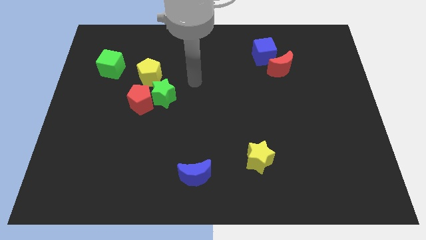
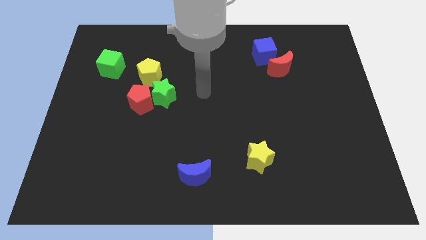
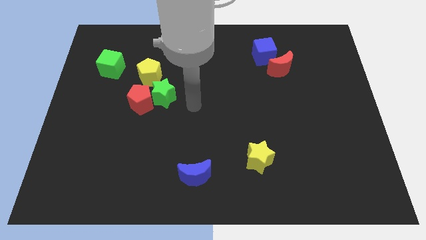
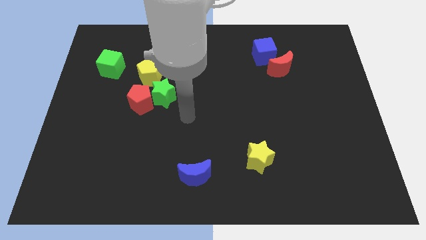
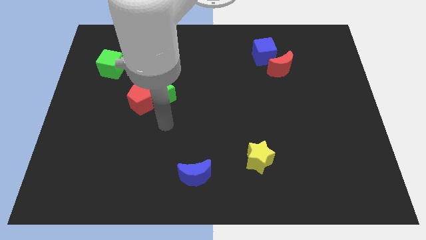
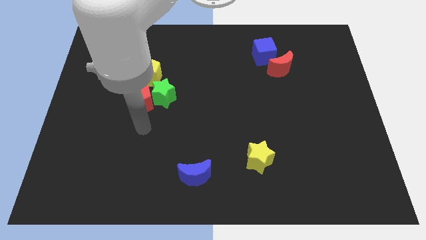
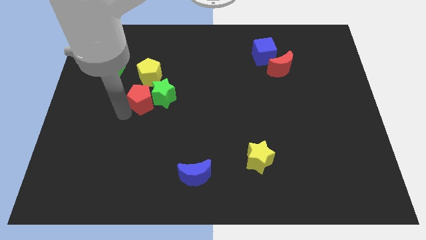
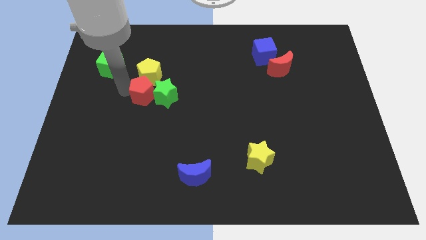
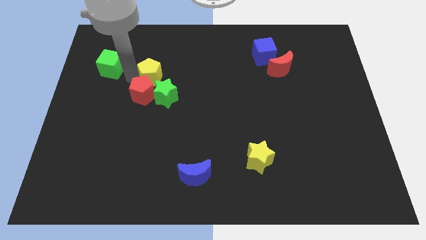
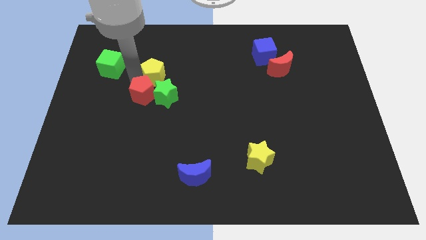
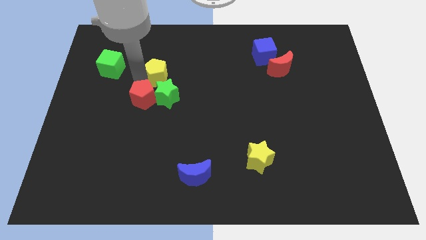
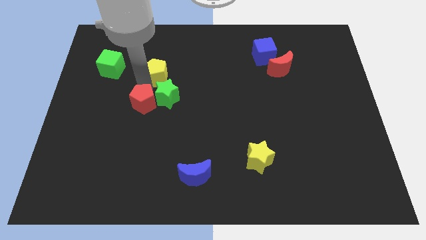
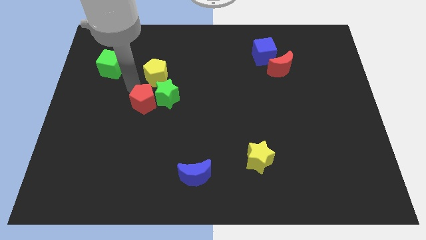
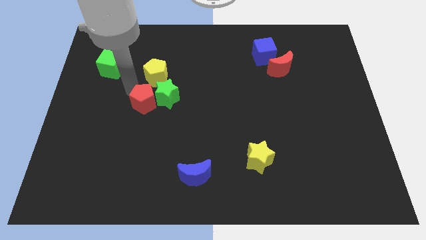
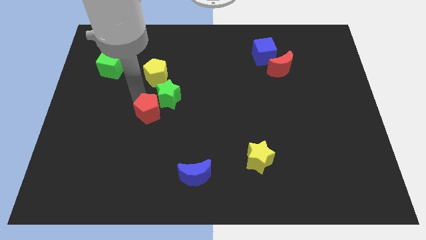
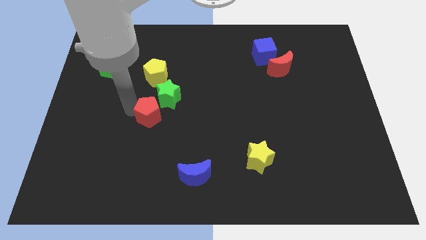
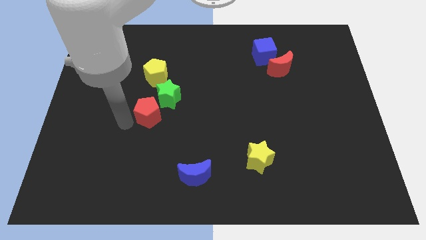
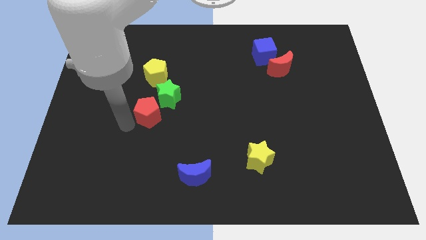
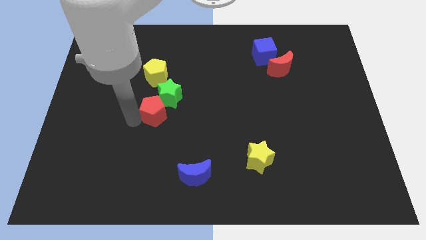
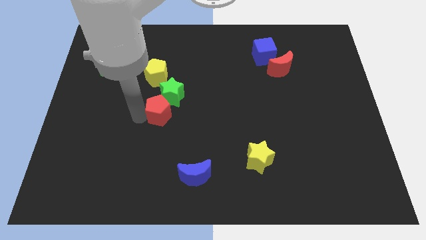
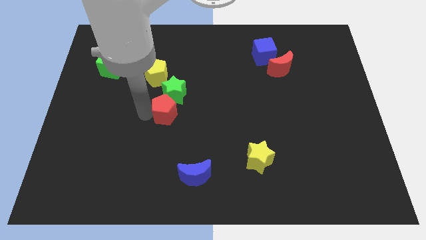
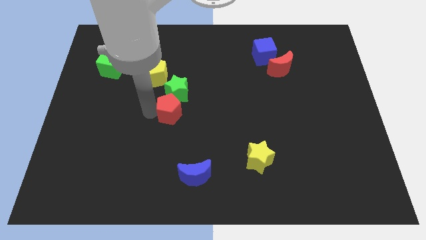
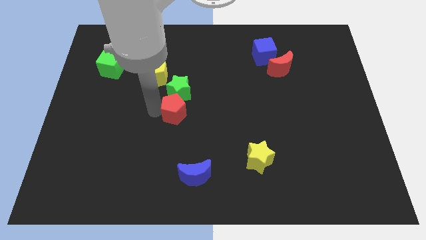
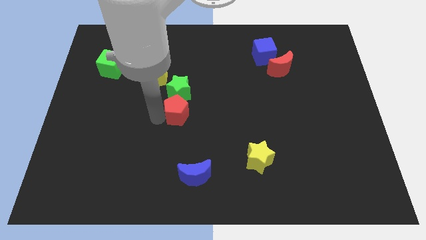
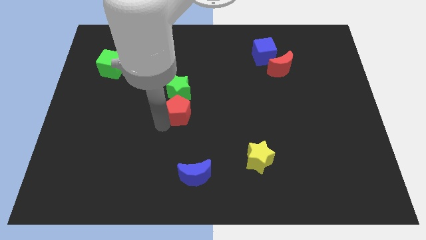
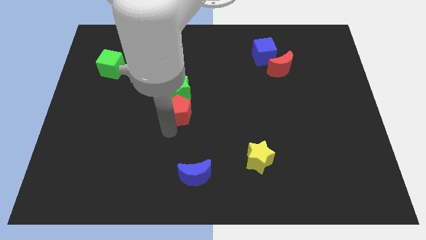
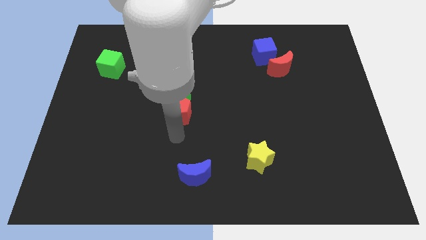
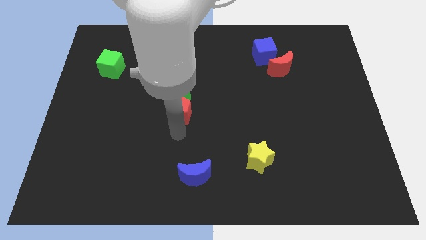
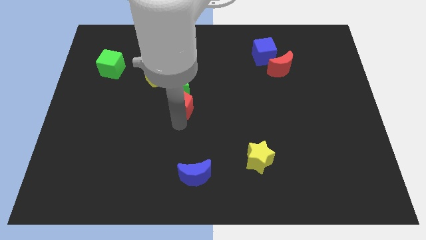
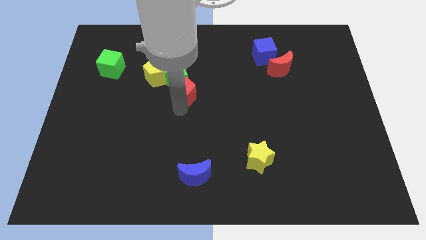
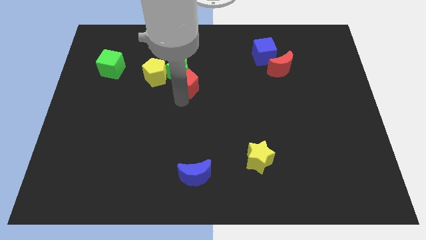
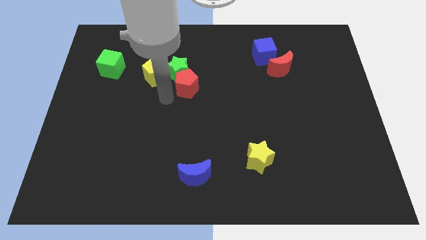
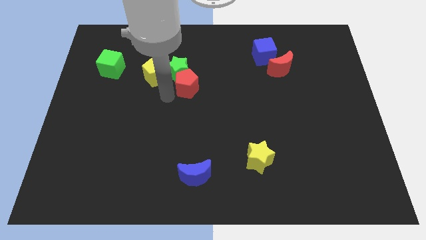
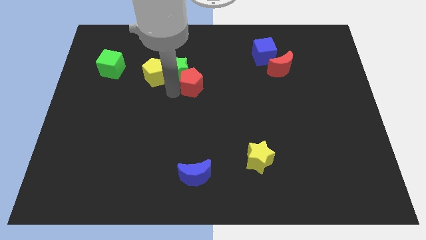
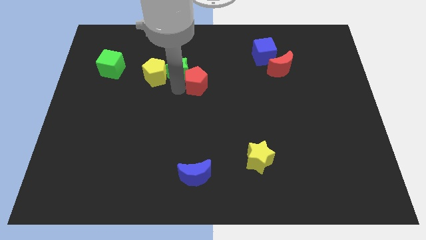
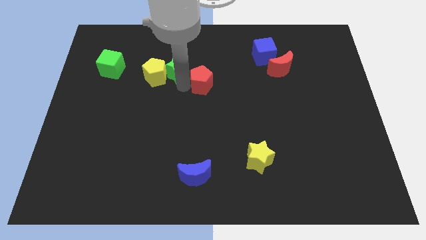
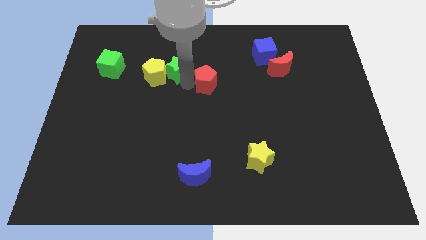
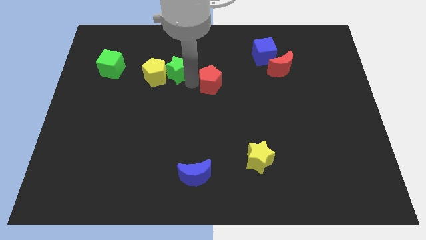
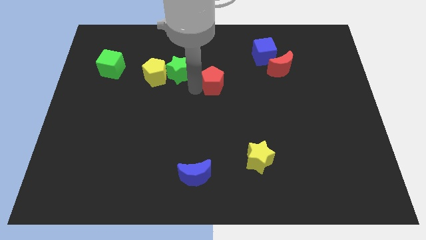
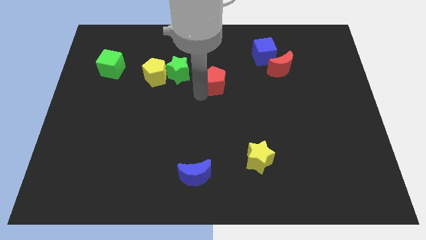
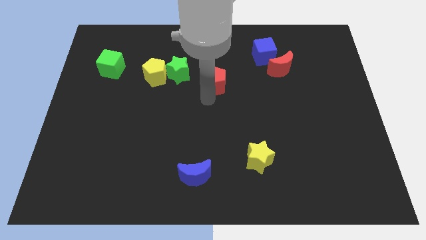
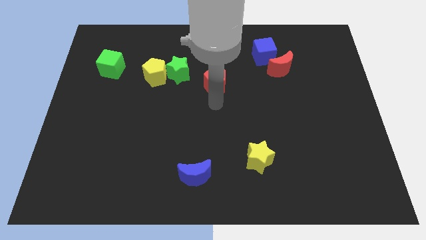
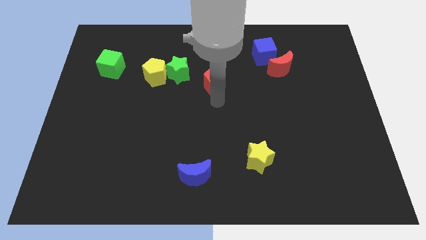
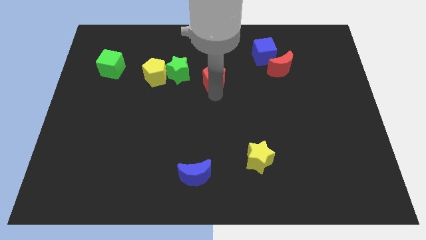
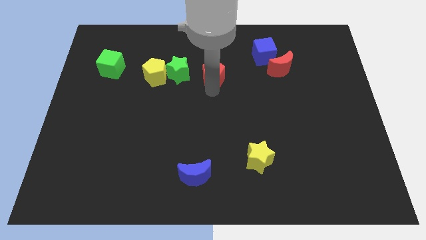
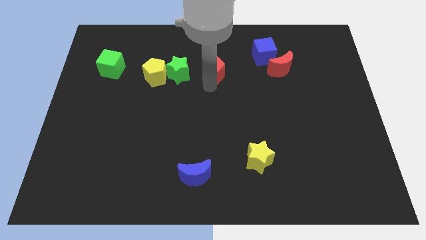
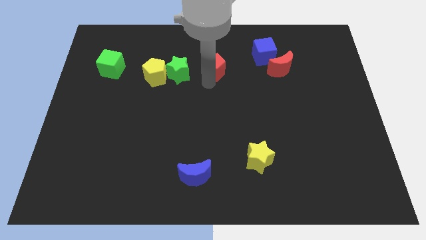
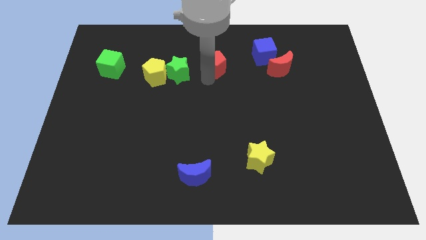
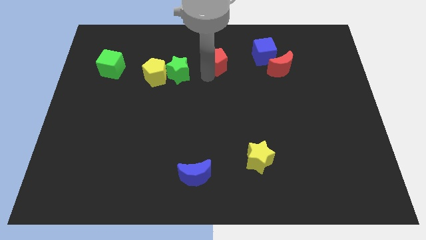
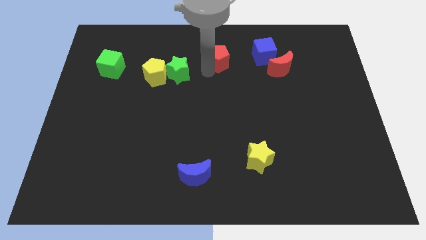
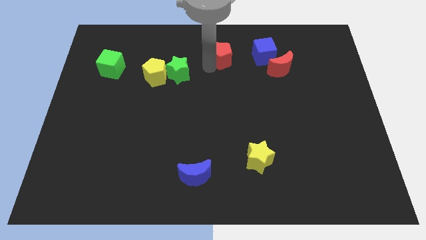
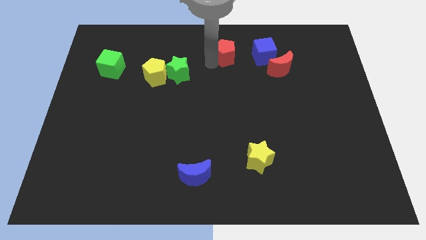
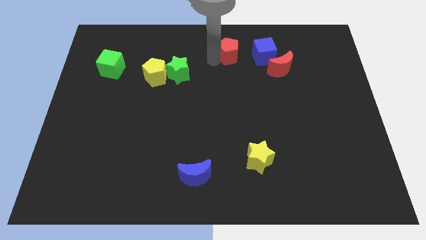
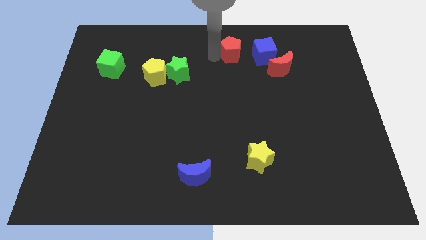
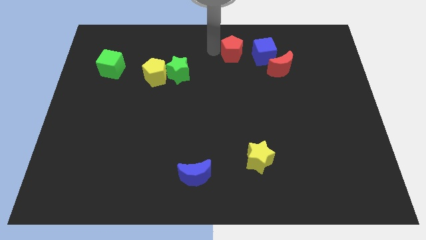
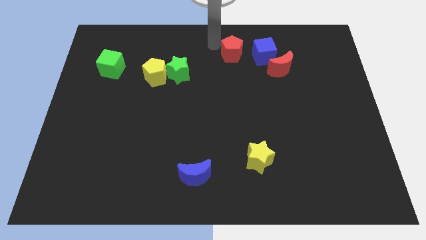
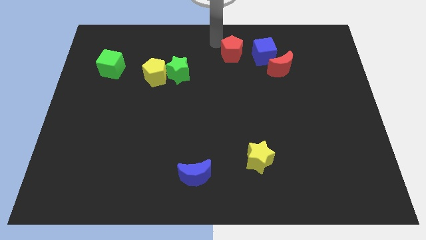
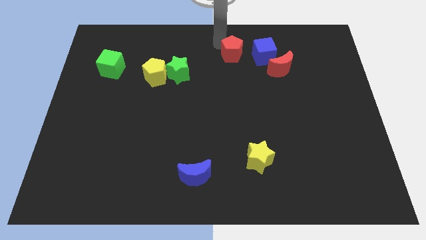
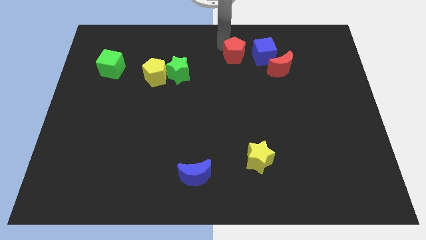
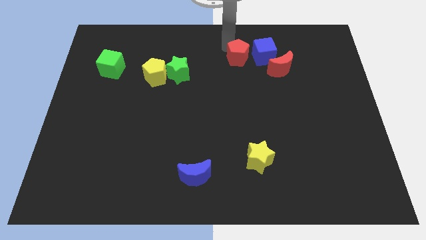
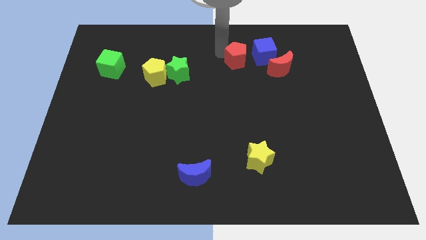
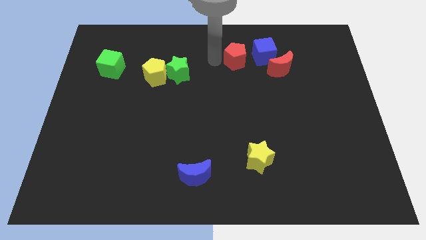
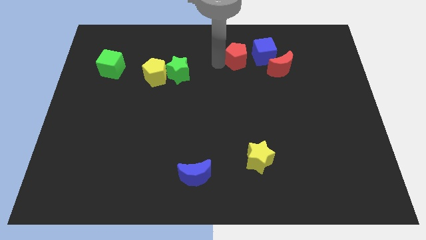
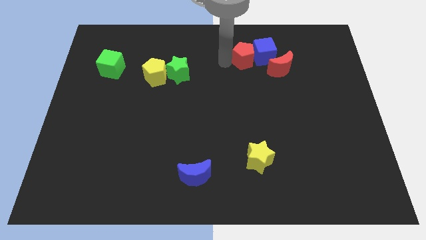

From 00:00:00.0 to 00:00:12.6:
put the red pentagon towards the blue cube
